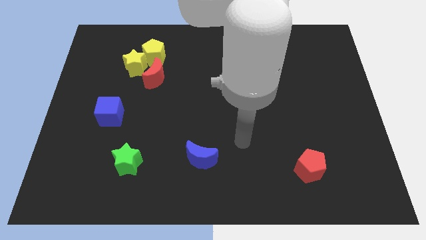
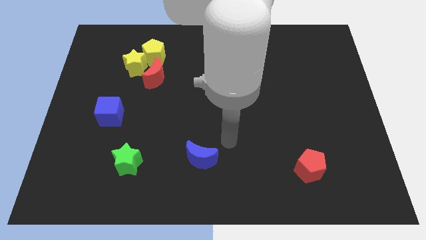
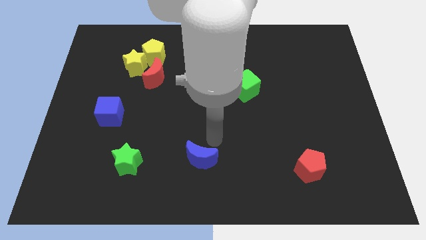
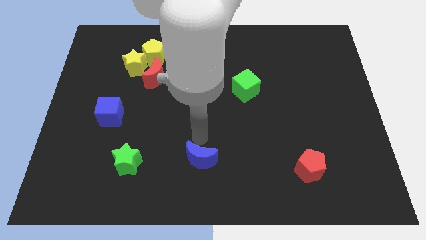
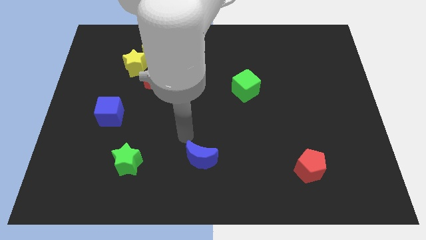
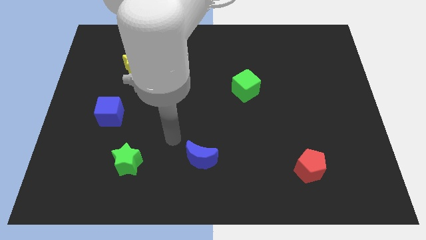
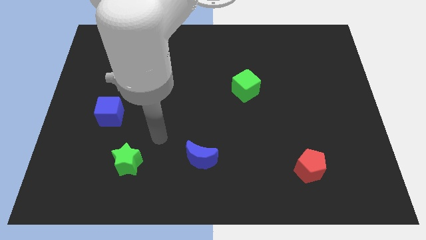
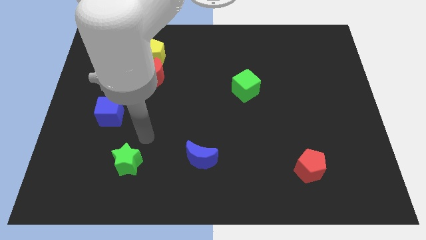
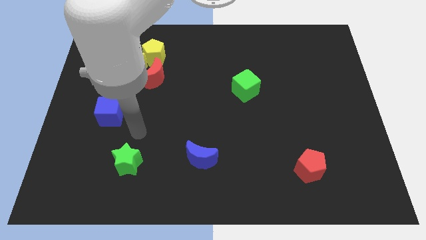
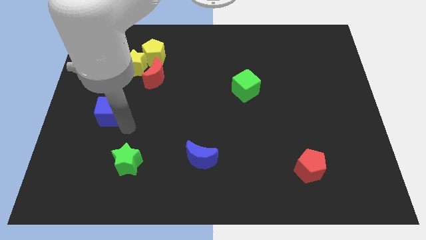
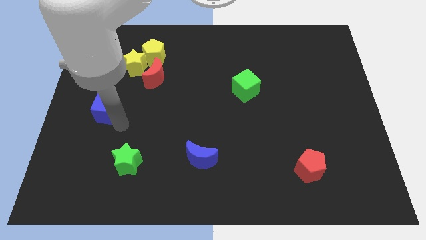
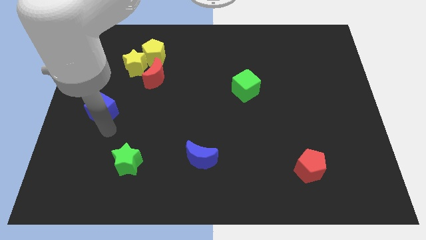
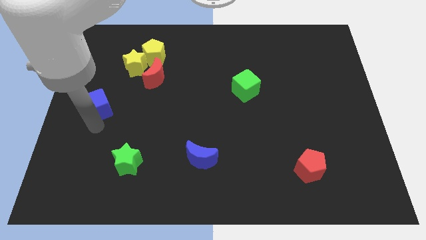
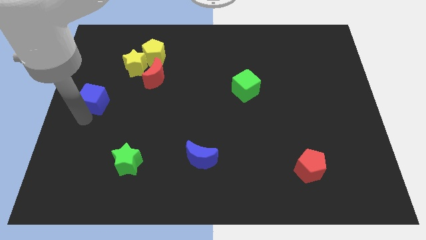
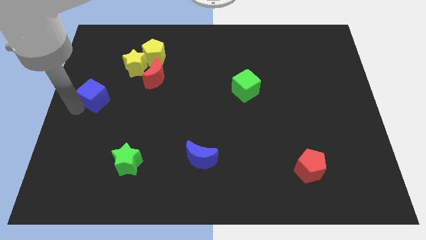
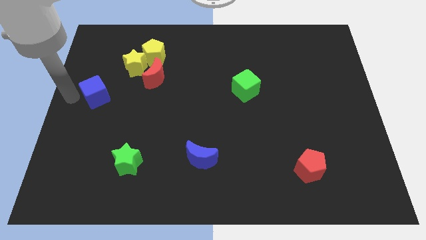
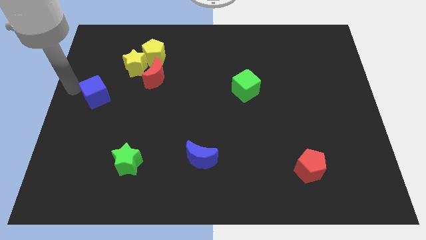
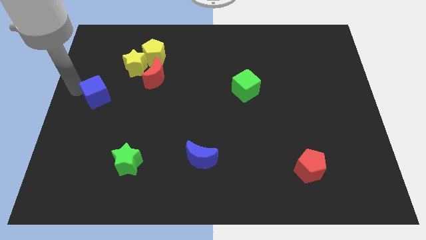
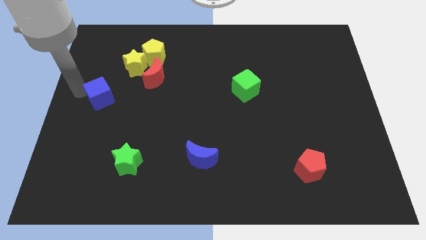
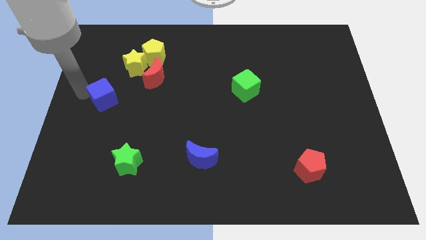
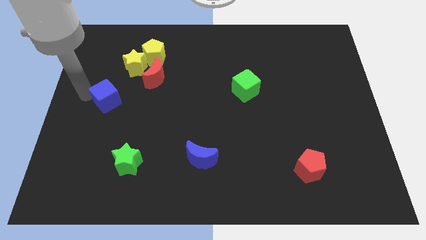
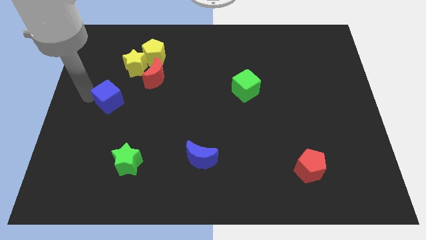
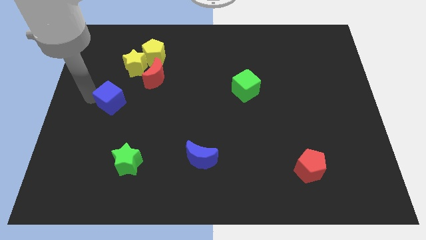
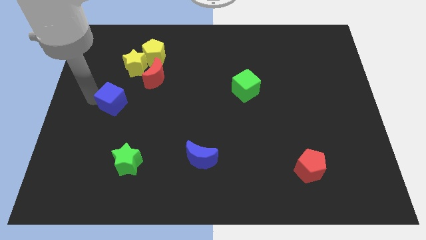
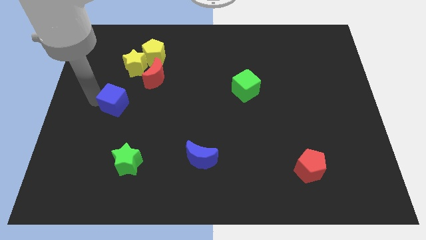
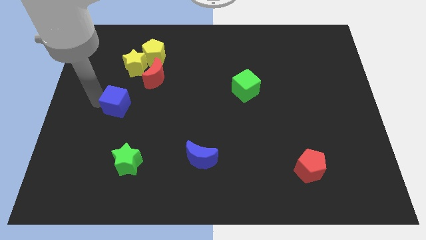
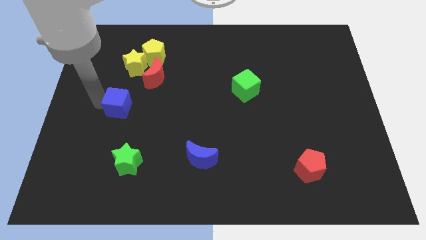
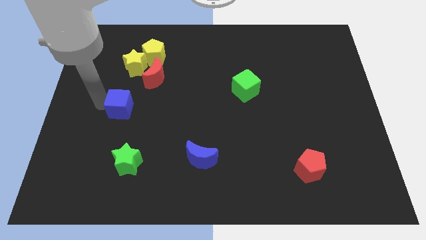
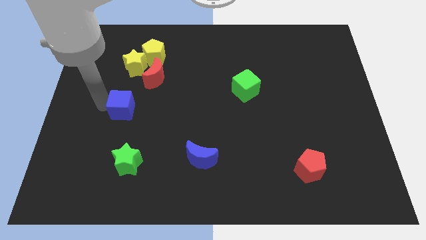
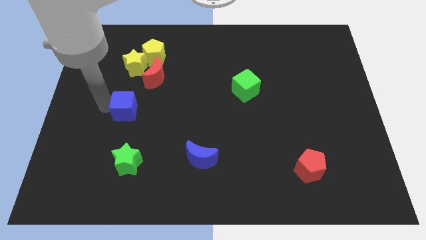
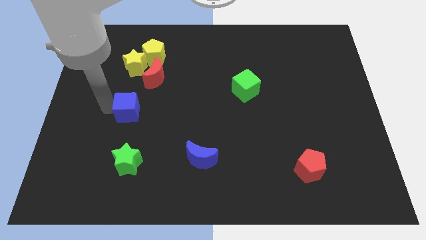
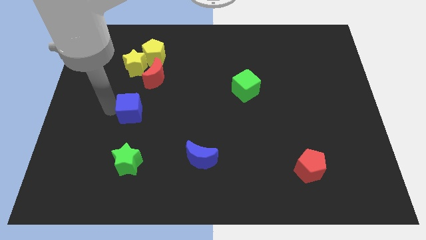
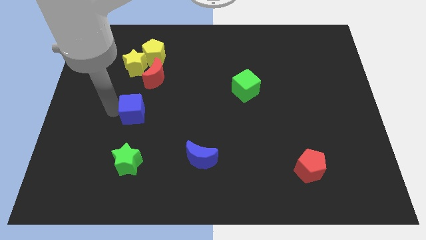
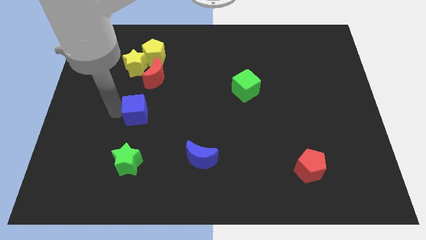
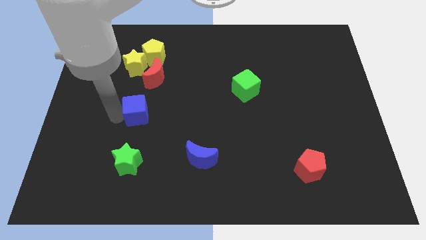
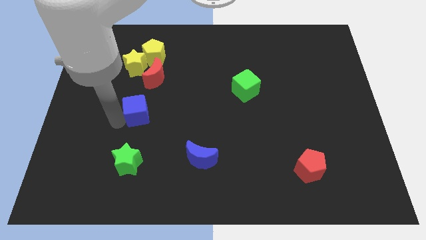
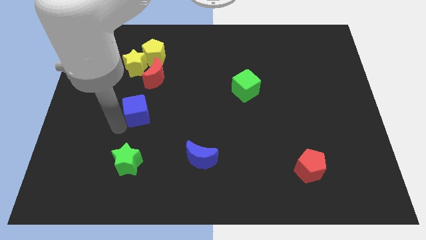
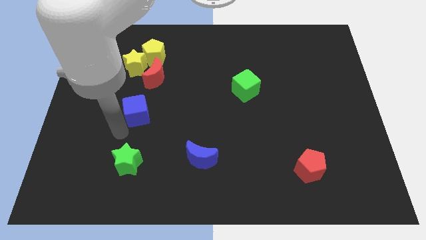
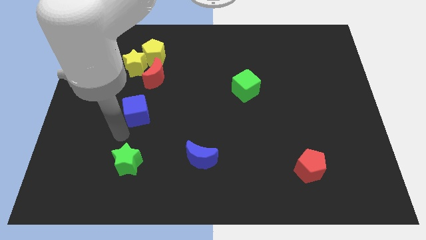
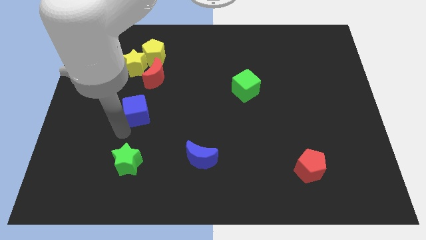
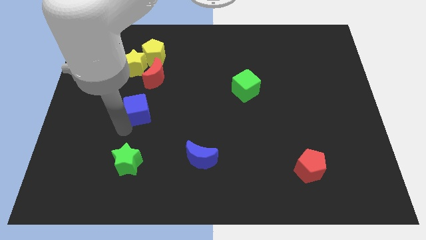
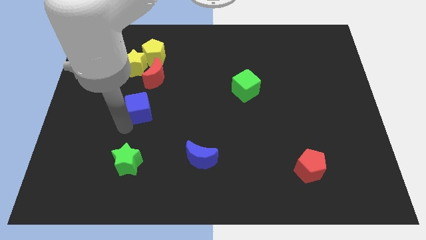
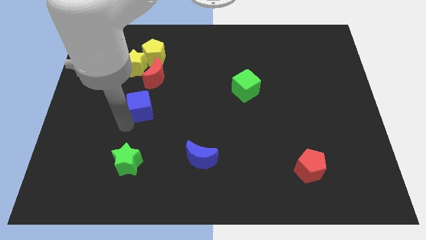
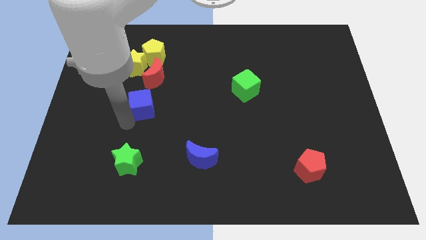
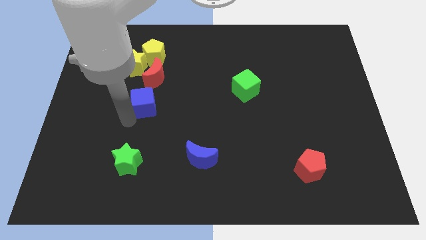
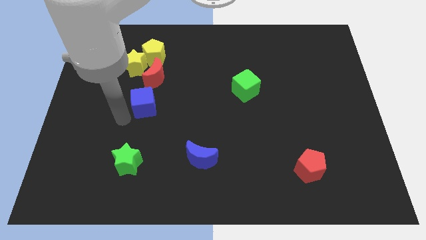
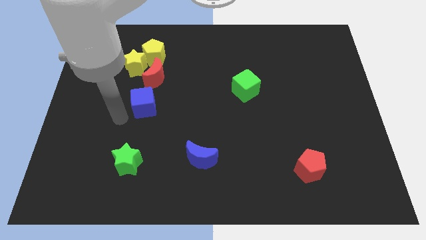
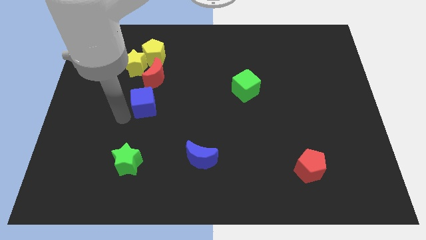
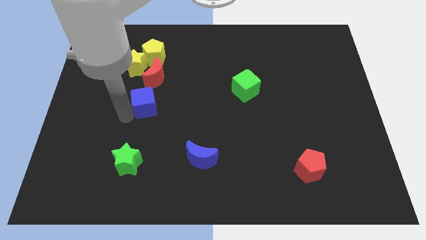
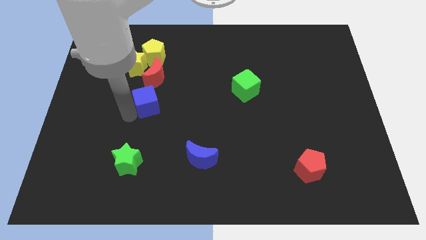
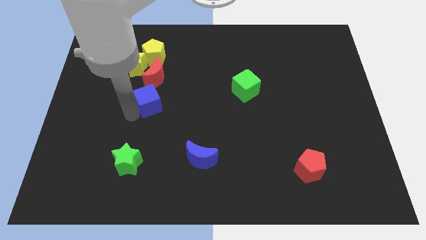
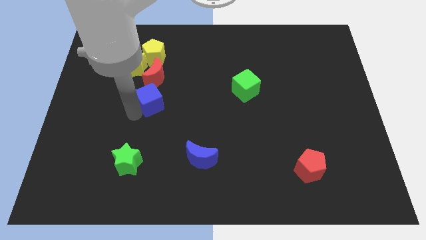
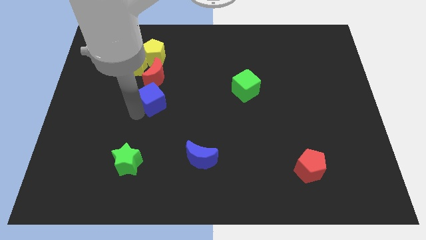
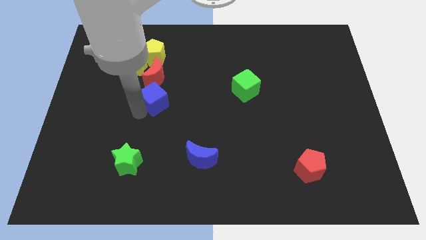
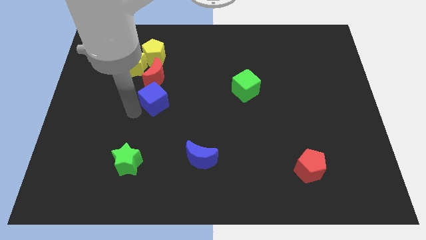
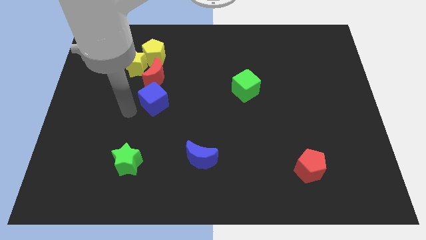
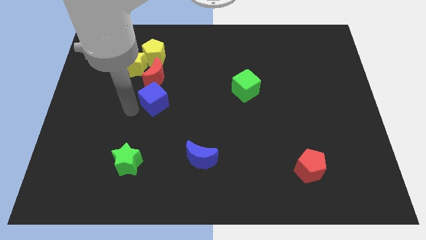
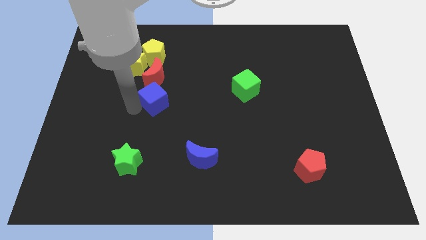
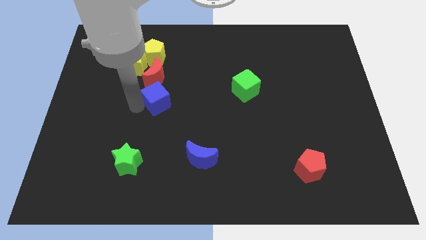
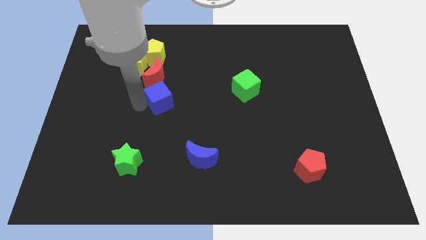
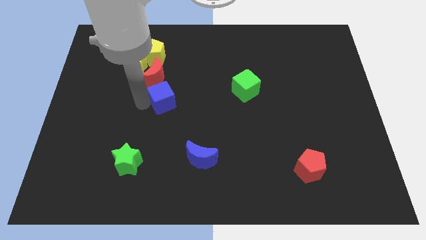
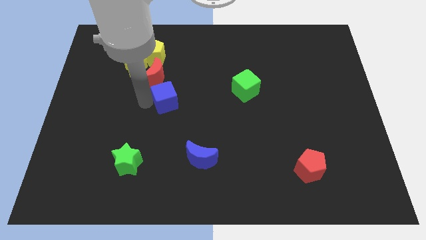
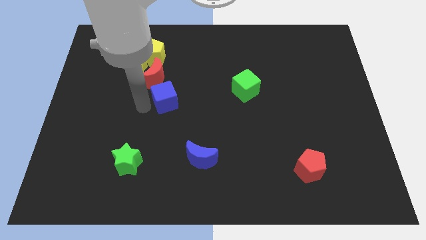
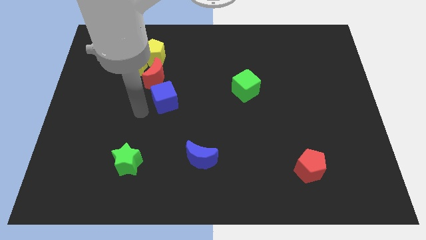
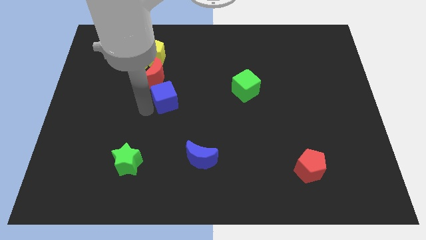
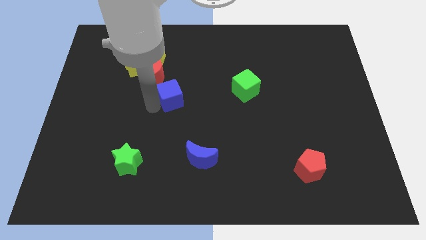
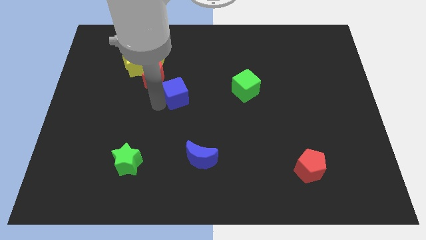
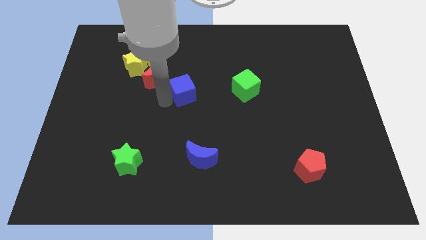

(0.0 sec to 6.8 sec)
move the blue cube just left of the green cube
